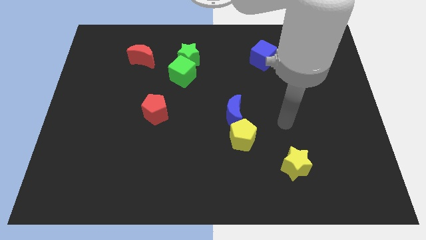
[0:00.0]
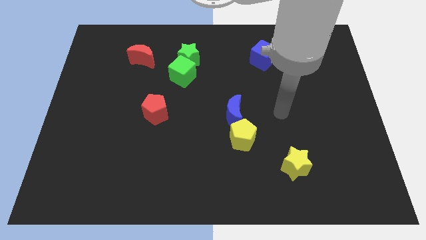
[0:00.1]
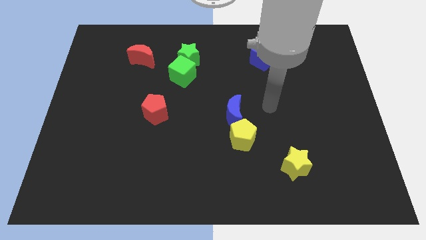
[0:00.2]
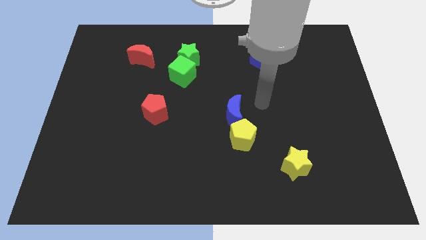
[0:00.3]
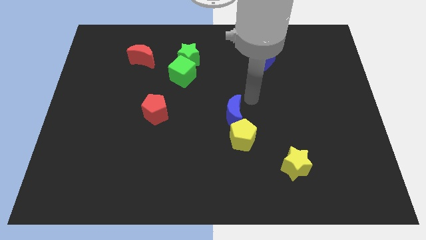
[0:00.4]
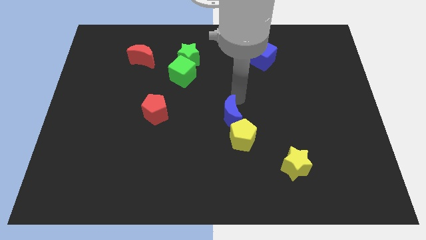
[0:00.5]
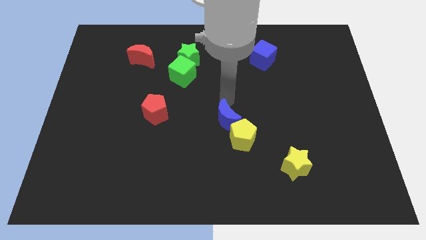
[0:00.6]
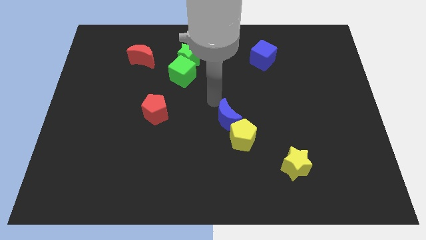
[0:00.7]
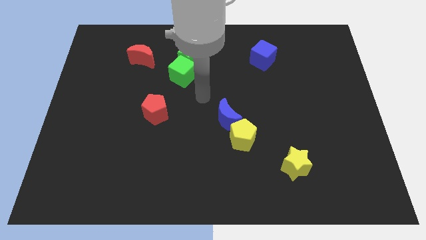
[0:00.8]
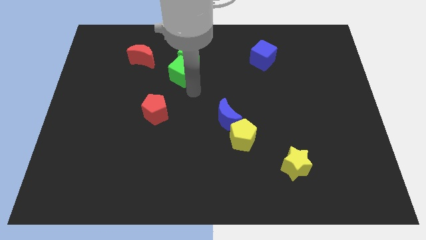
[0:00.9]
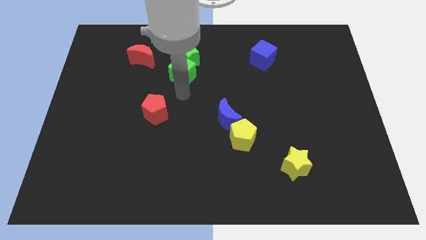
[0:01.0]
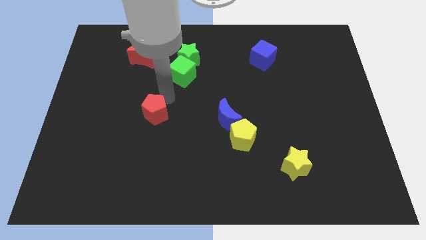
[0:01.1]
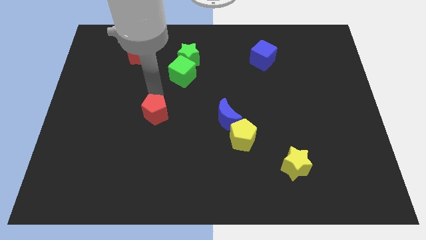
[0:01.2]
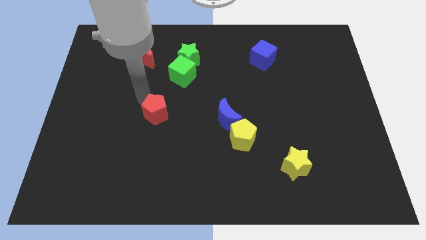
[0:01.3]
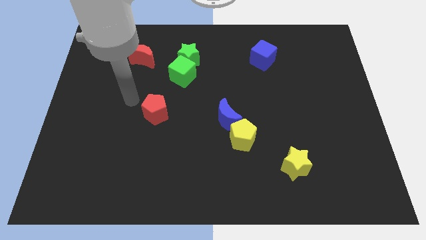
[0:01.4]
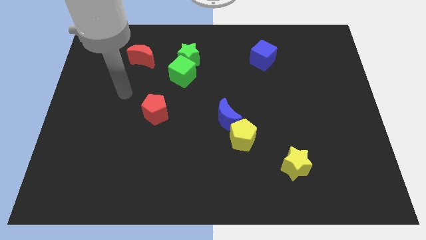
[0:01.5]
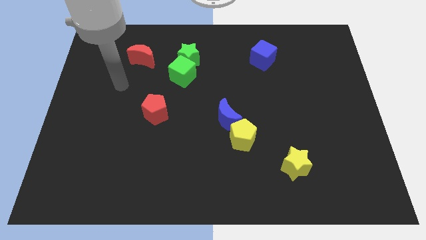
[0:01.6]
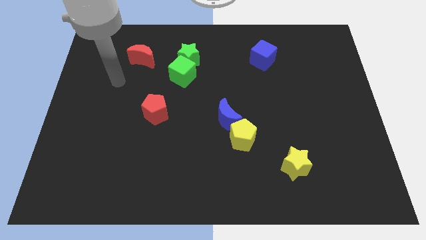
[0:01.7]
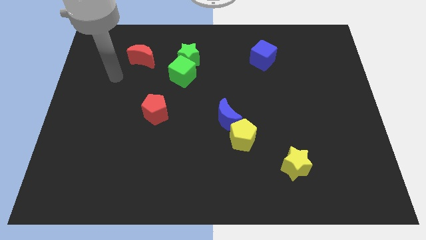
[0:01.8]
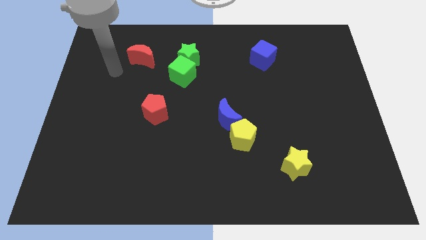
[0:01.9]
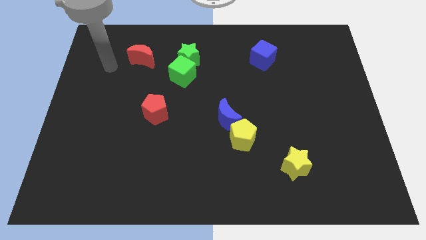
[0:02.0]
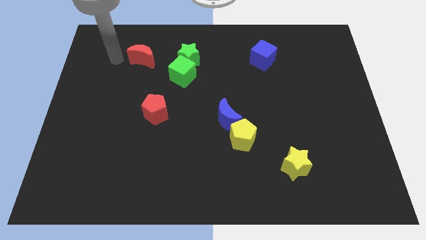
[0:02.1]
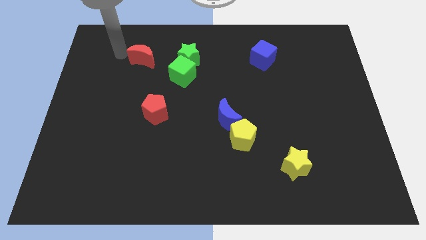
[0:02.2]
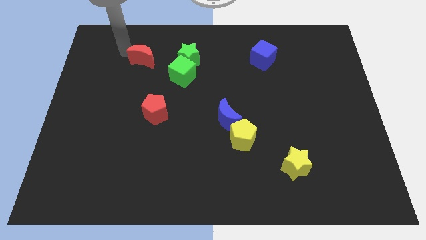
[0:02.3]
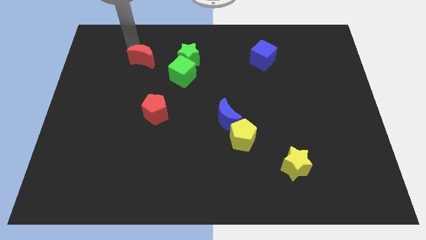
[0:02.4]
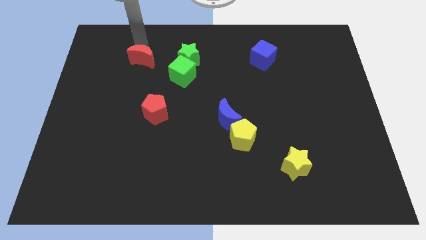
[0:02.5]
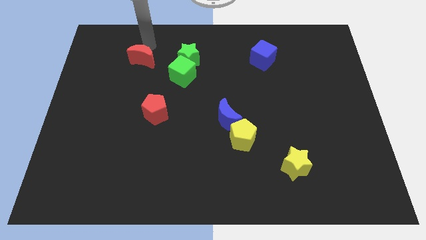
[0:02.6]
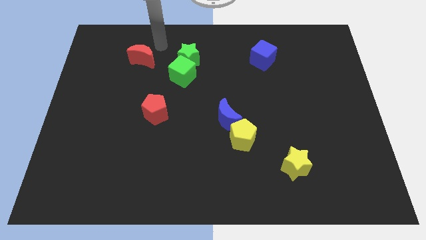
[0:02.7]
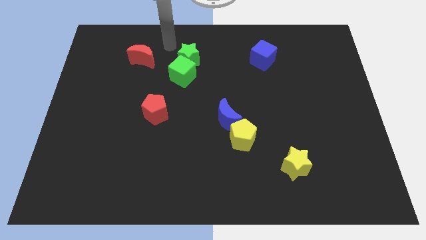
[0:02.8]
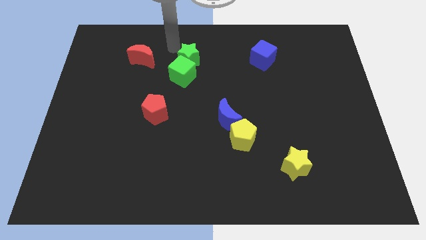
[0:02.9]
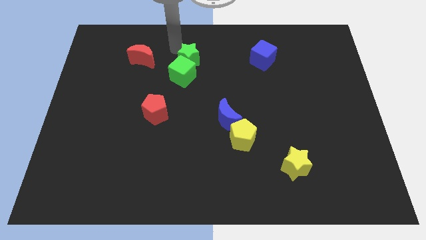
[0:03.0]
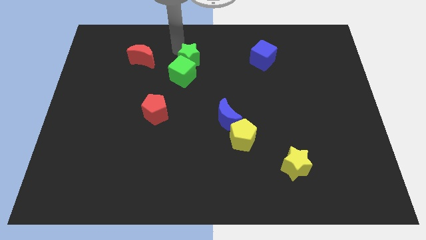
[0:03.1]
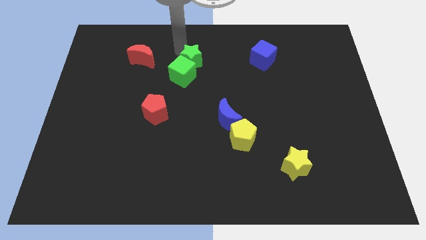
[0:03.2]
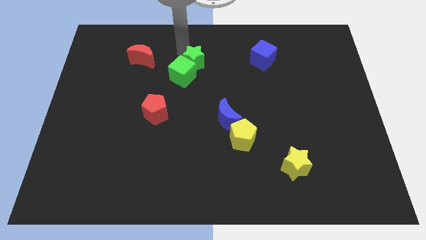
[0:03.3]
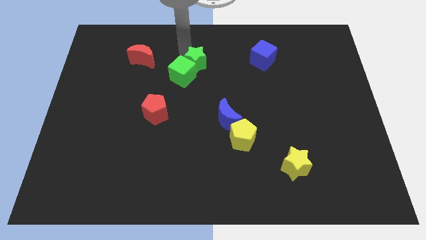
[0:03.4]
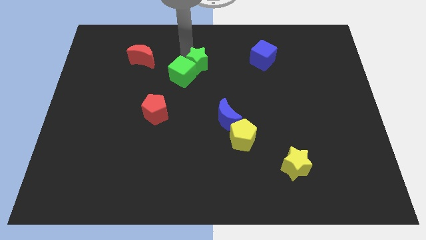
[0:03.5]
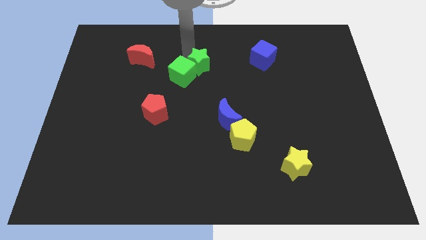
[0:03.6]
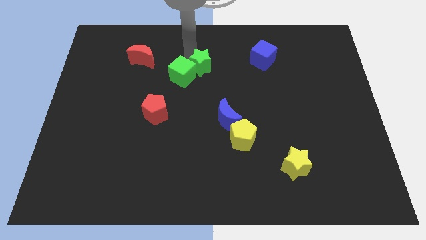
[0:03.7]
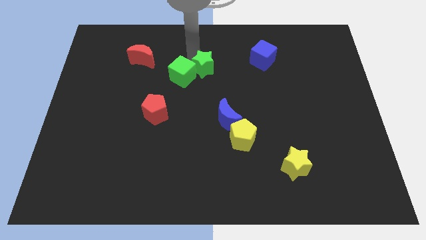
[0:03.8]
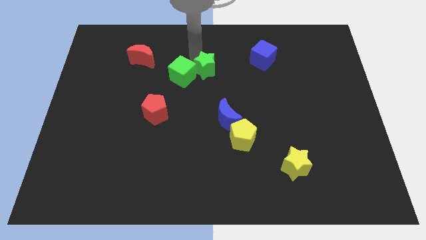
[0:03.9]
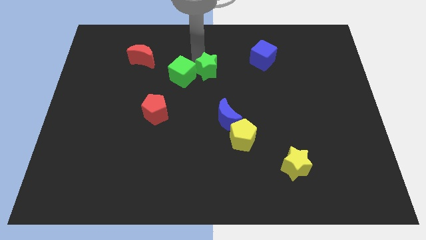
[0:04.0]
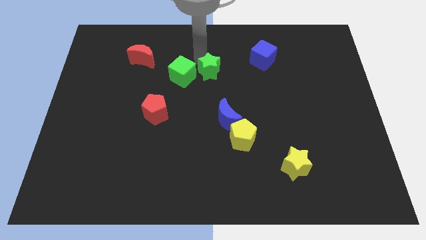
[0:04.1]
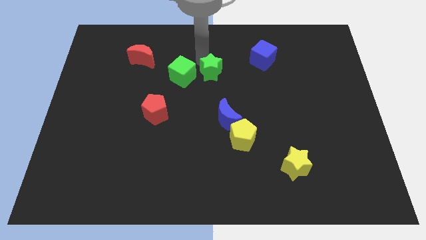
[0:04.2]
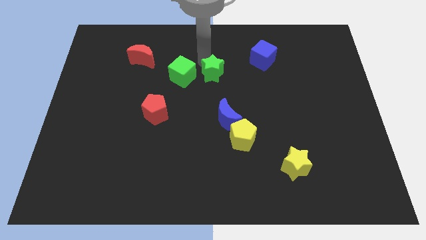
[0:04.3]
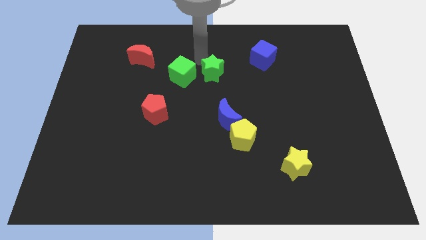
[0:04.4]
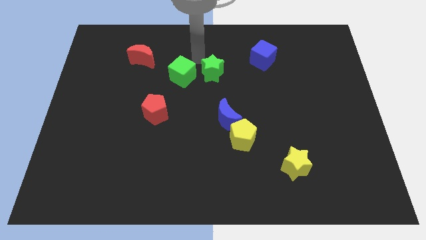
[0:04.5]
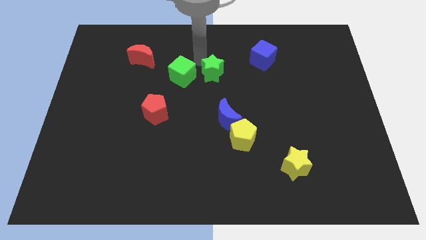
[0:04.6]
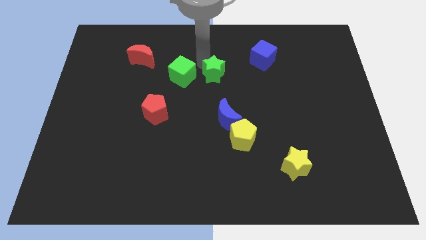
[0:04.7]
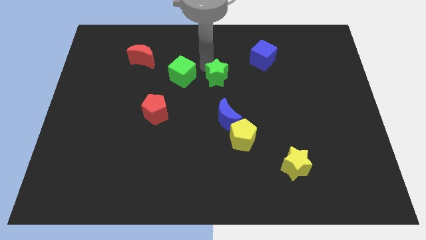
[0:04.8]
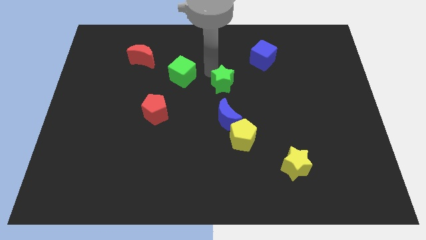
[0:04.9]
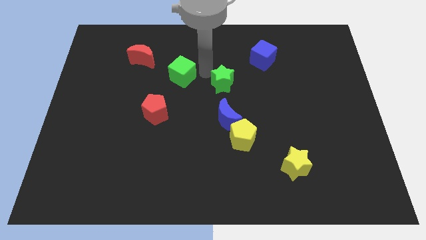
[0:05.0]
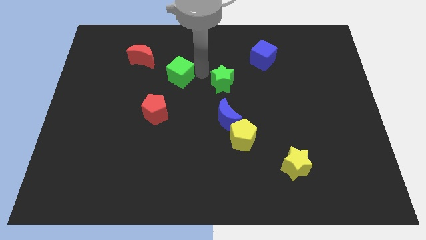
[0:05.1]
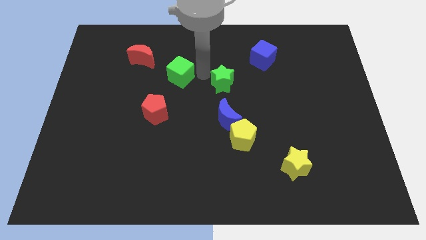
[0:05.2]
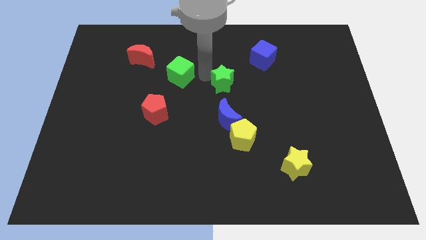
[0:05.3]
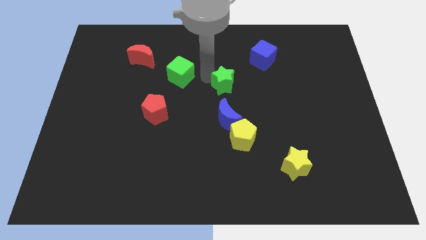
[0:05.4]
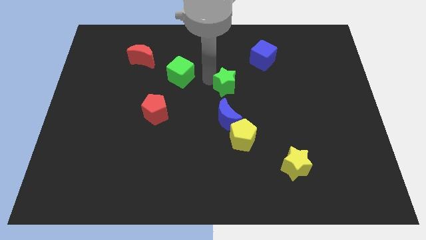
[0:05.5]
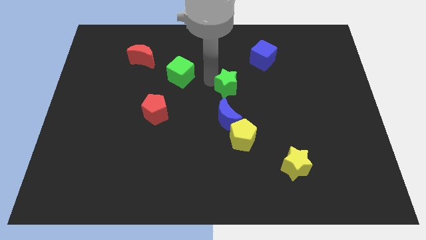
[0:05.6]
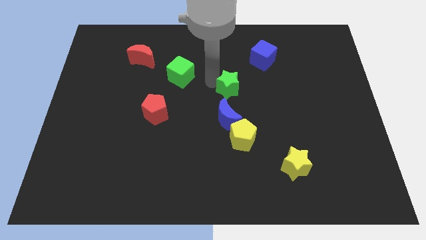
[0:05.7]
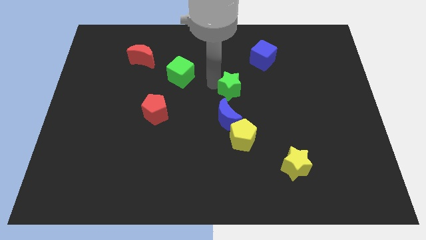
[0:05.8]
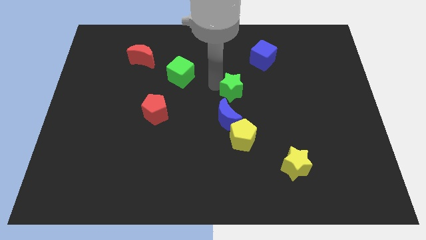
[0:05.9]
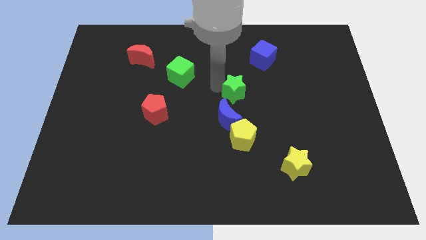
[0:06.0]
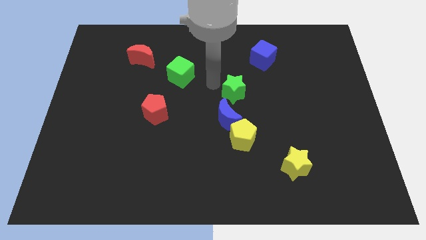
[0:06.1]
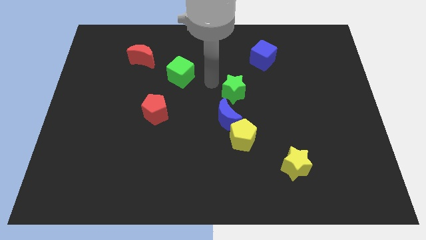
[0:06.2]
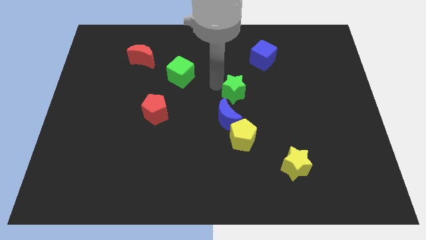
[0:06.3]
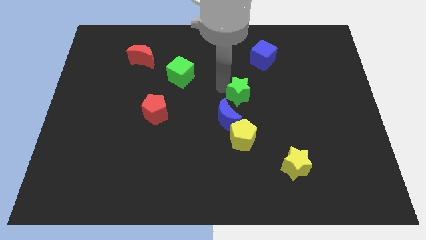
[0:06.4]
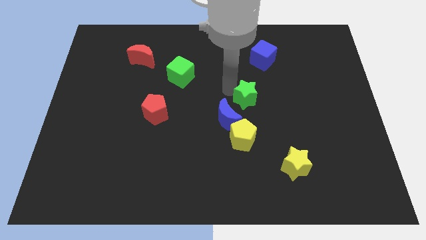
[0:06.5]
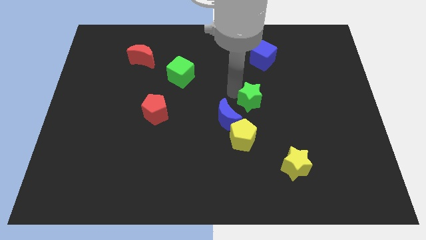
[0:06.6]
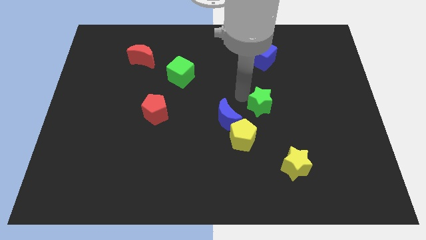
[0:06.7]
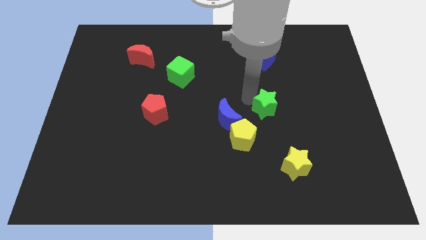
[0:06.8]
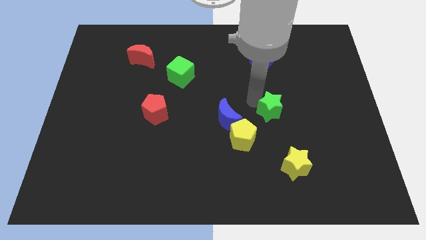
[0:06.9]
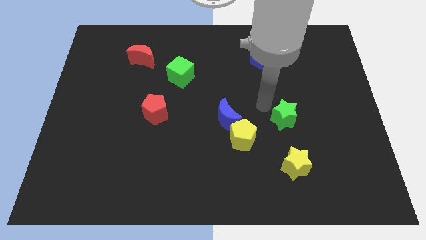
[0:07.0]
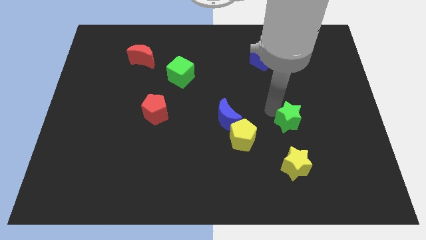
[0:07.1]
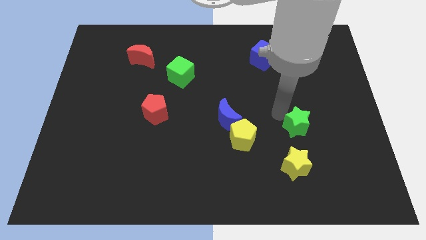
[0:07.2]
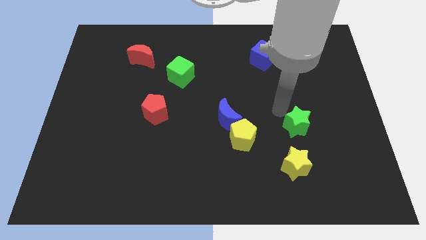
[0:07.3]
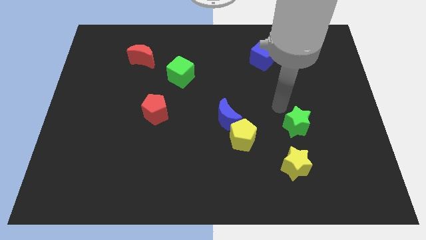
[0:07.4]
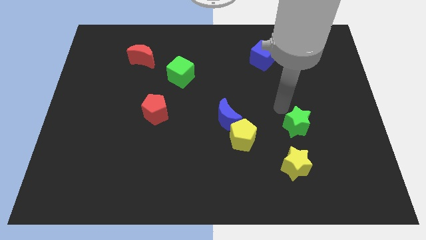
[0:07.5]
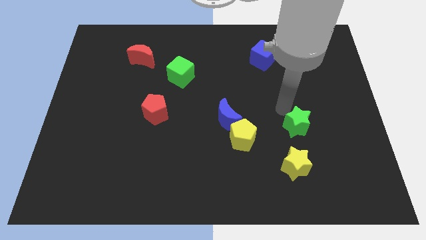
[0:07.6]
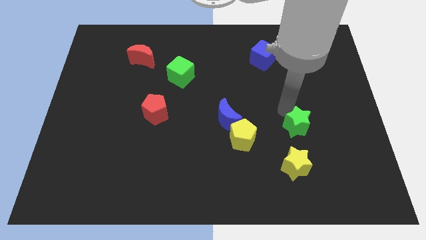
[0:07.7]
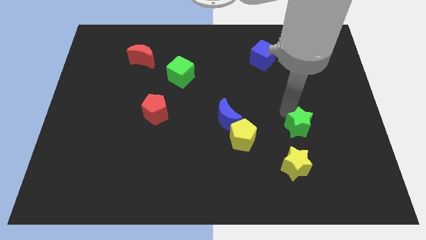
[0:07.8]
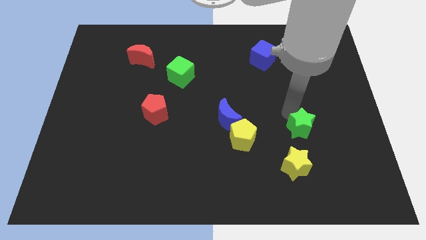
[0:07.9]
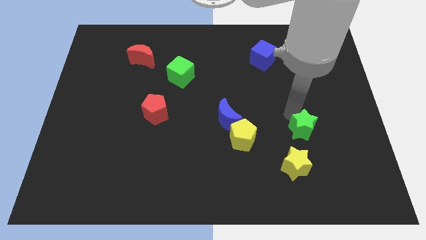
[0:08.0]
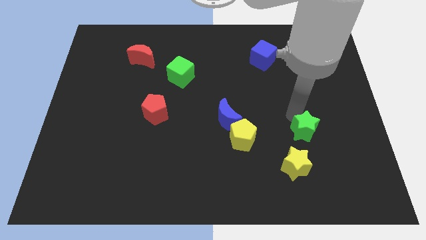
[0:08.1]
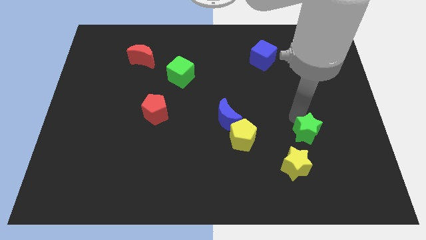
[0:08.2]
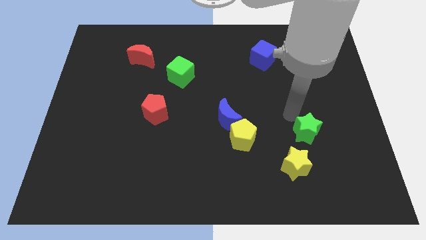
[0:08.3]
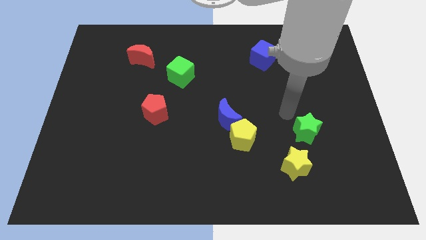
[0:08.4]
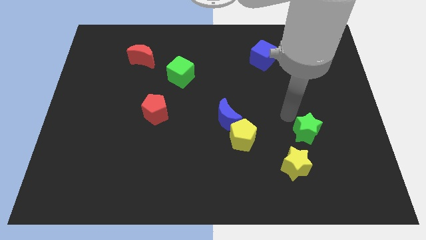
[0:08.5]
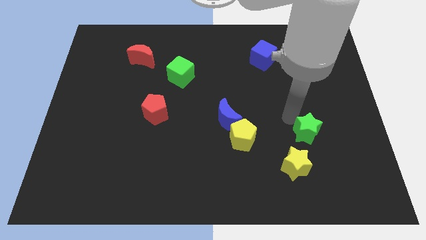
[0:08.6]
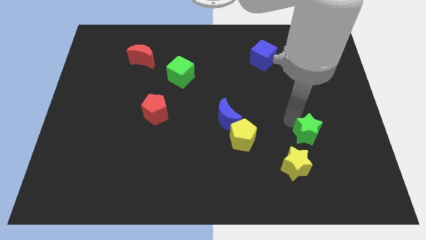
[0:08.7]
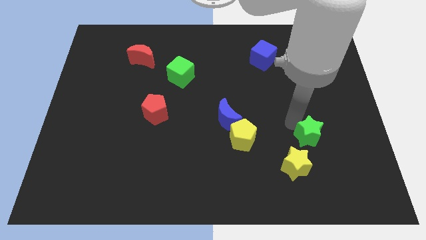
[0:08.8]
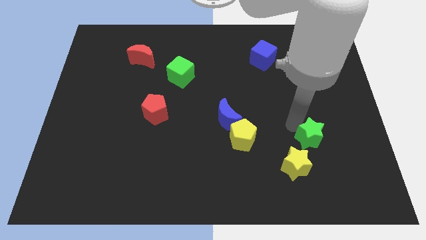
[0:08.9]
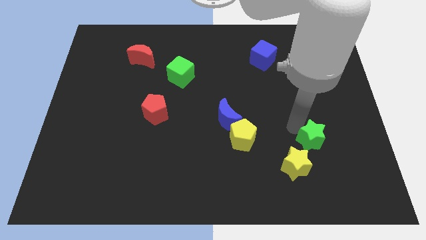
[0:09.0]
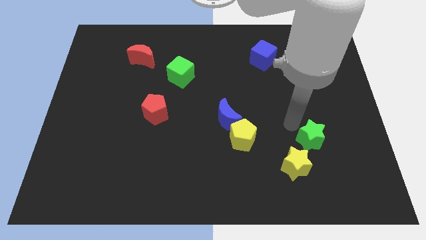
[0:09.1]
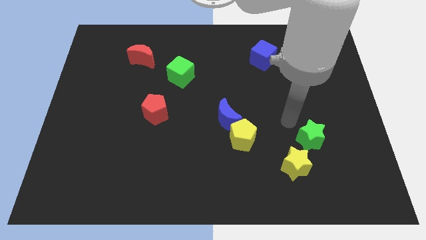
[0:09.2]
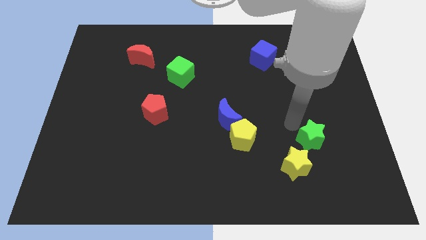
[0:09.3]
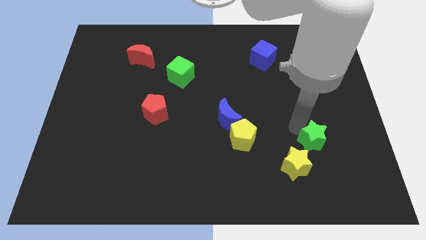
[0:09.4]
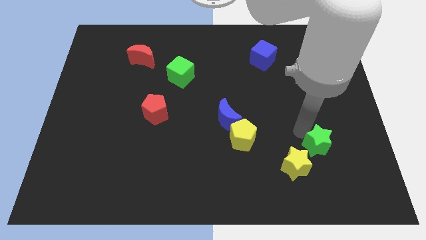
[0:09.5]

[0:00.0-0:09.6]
slide the green star right of the yellow star
